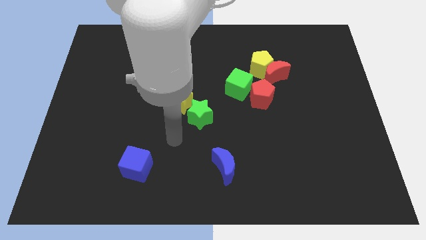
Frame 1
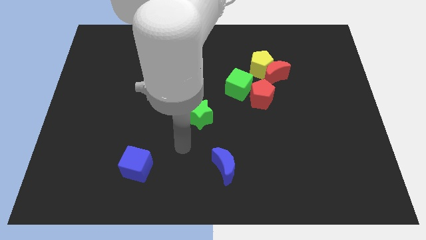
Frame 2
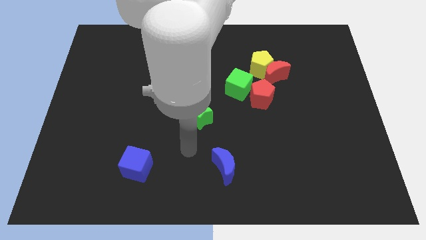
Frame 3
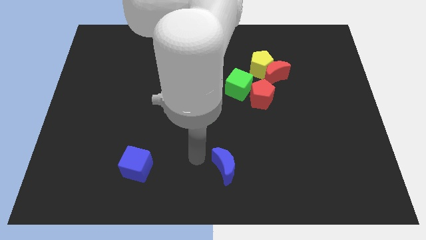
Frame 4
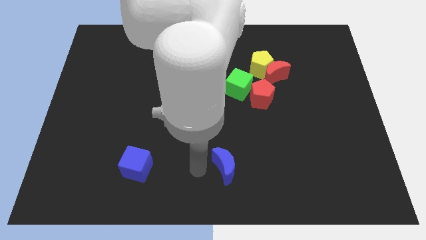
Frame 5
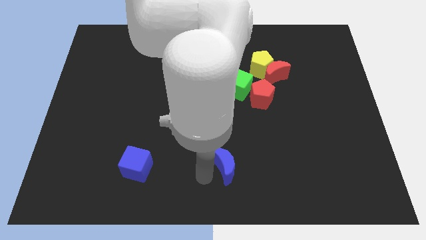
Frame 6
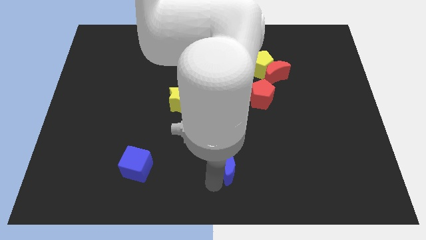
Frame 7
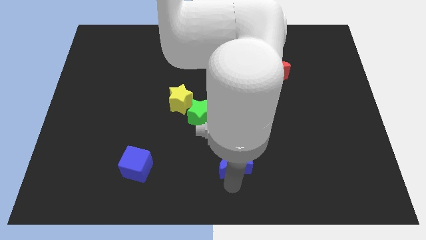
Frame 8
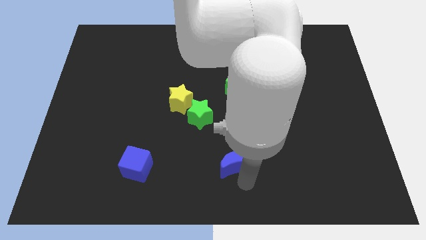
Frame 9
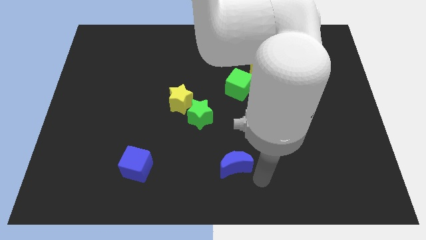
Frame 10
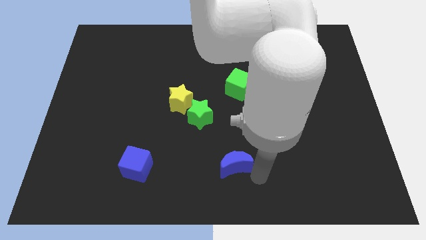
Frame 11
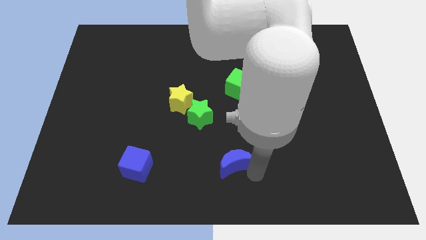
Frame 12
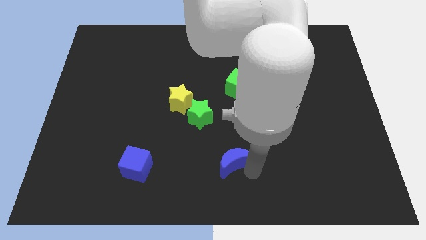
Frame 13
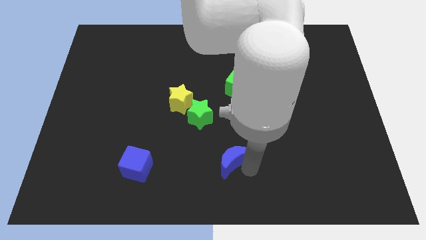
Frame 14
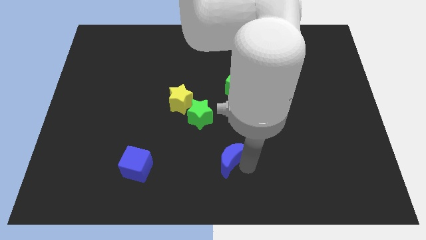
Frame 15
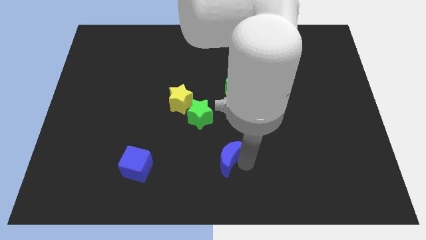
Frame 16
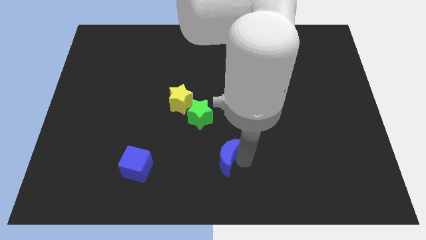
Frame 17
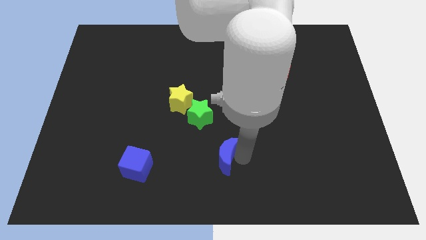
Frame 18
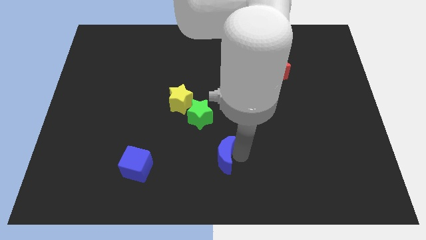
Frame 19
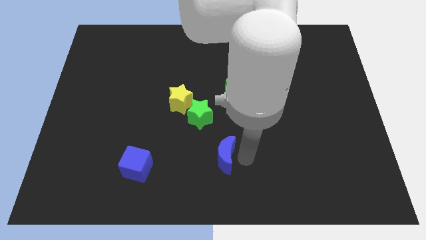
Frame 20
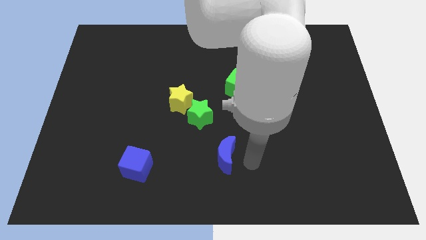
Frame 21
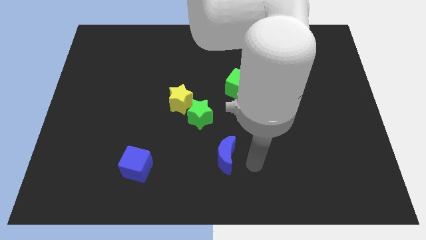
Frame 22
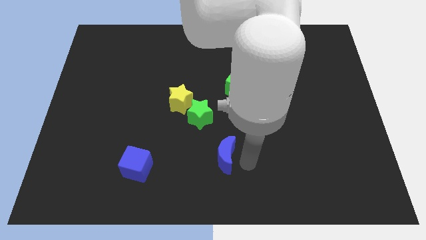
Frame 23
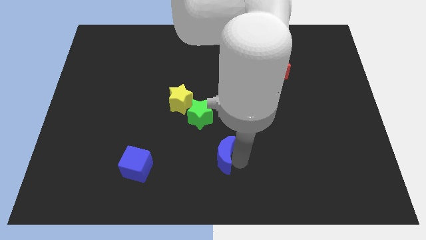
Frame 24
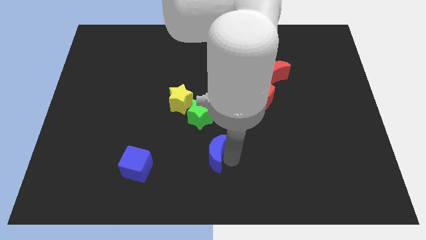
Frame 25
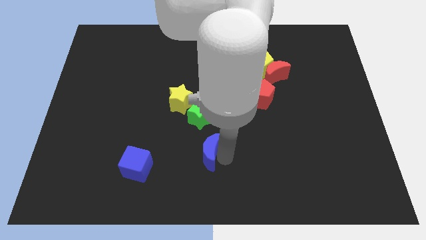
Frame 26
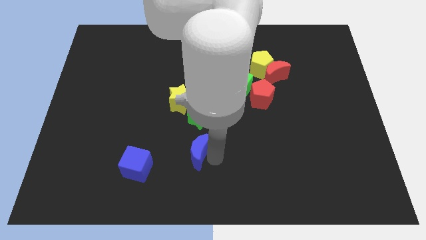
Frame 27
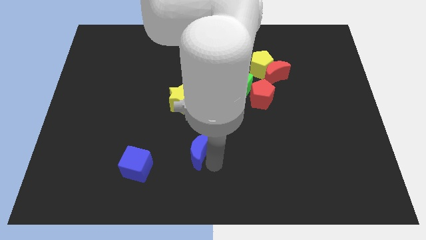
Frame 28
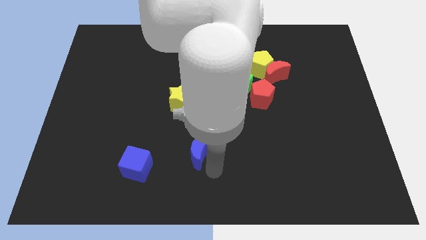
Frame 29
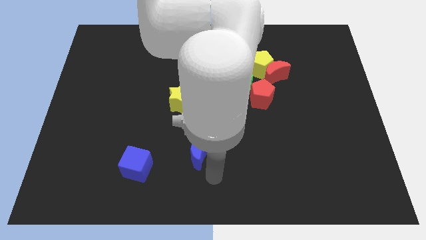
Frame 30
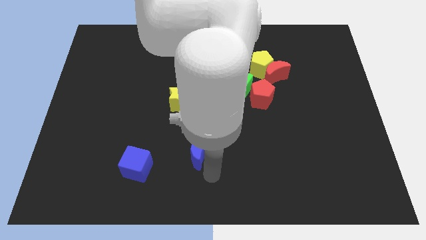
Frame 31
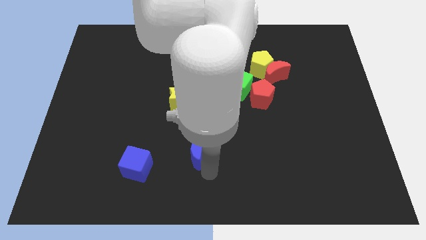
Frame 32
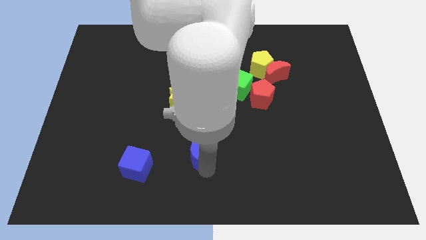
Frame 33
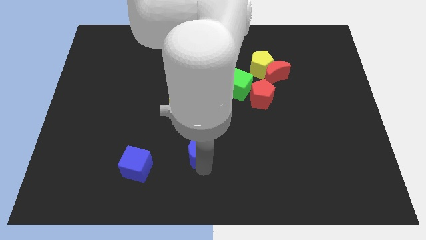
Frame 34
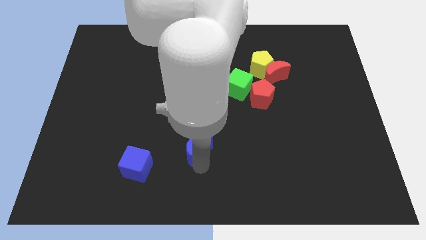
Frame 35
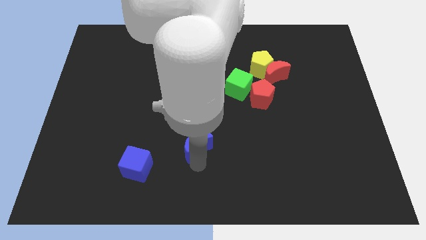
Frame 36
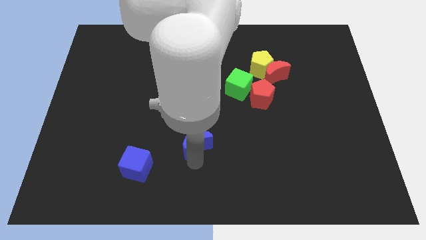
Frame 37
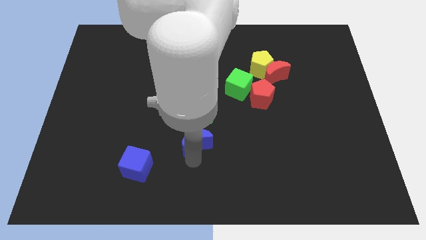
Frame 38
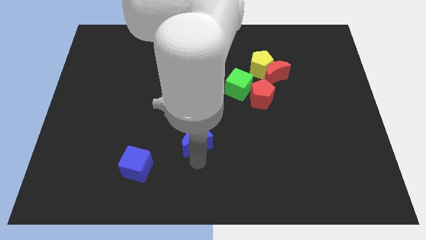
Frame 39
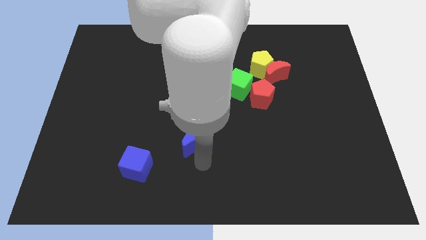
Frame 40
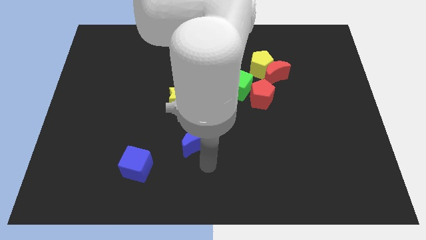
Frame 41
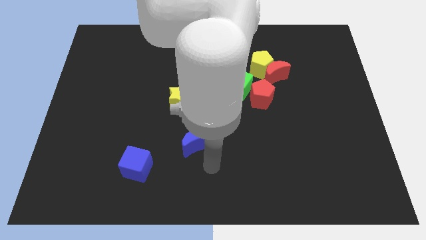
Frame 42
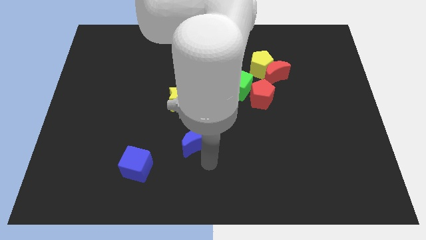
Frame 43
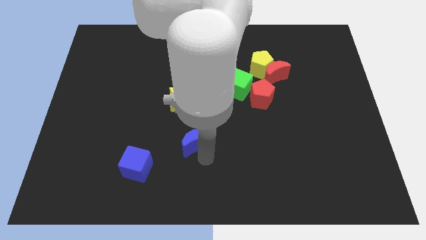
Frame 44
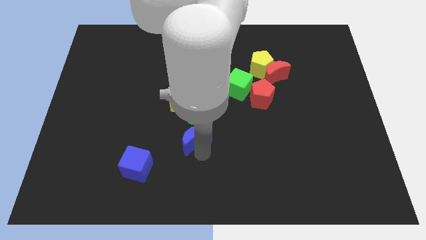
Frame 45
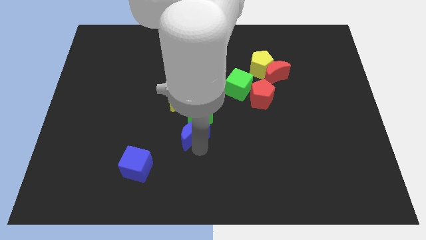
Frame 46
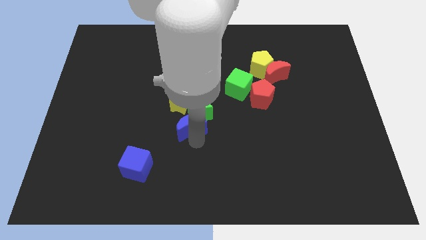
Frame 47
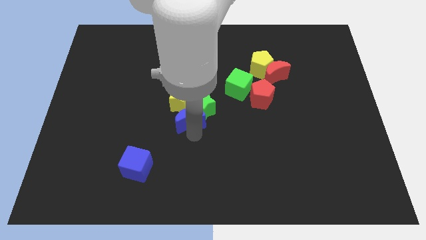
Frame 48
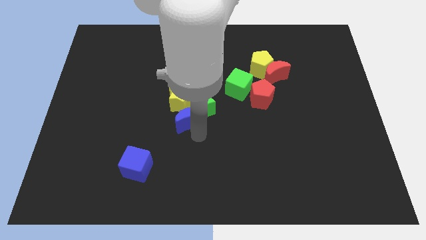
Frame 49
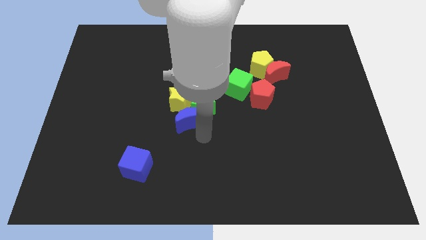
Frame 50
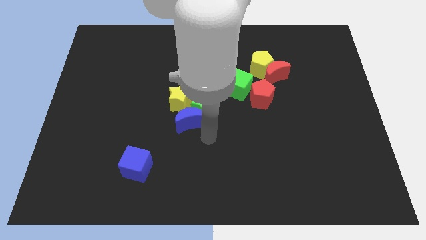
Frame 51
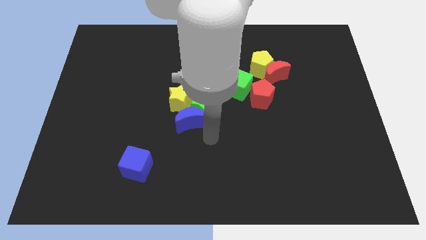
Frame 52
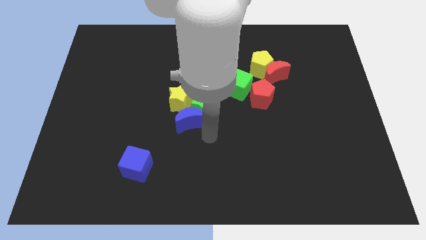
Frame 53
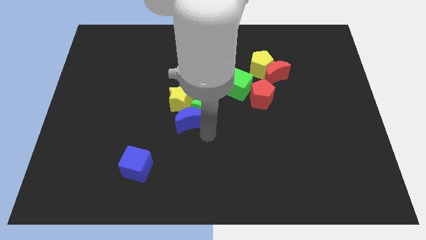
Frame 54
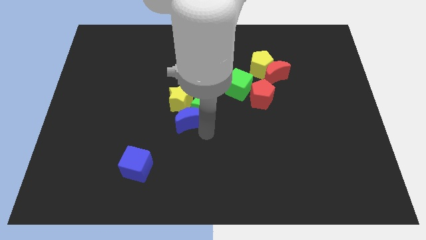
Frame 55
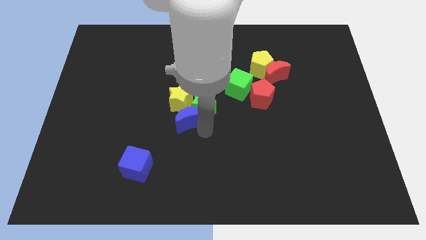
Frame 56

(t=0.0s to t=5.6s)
slide the blue moon next to the yellow star

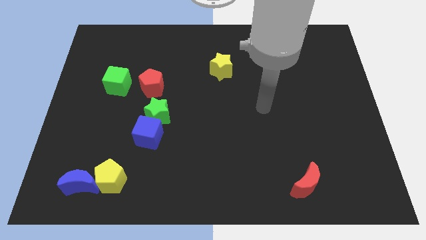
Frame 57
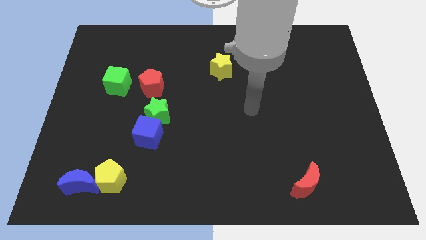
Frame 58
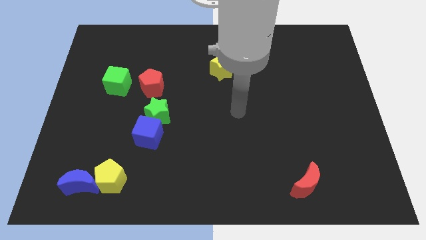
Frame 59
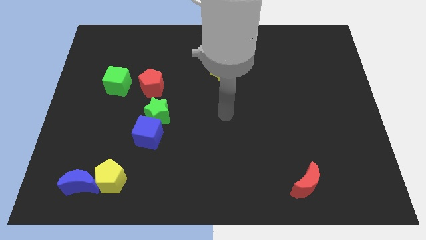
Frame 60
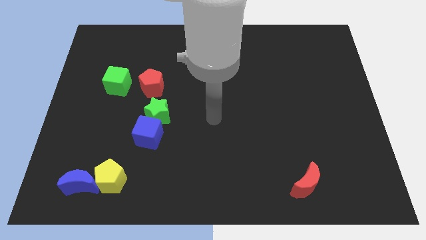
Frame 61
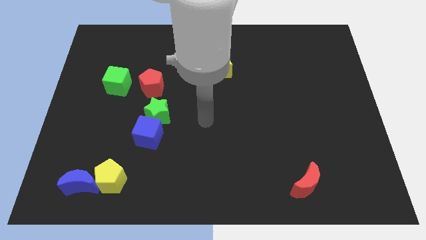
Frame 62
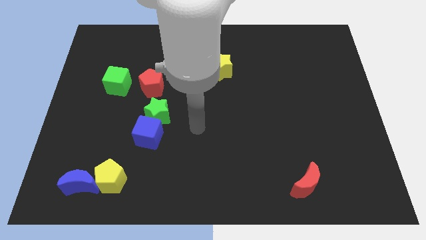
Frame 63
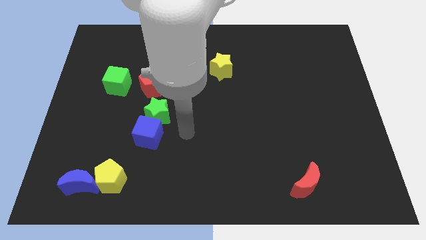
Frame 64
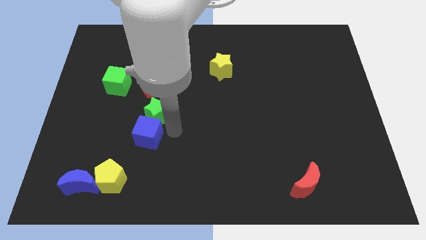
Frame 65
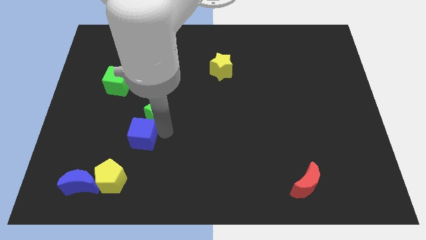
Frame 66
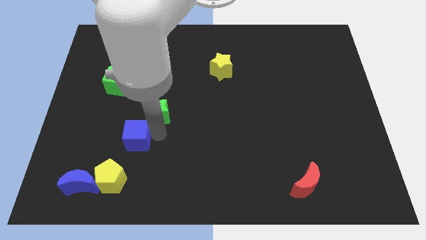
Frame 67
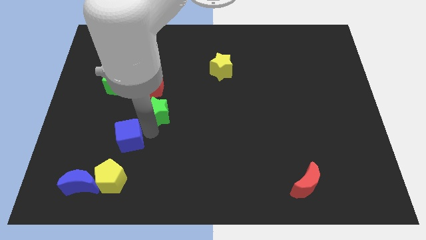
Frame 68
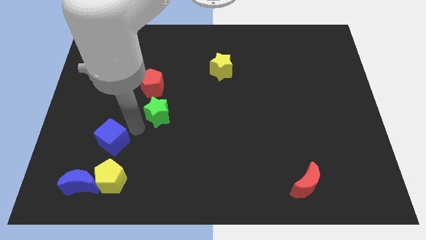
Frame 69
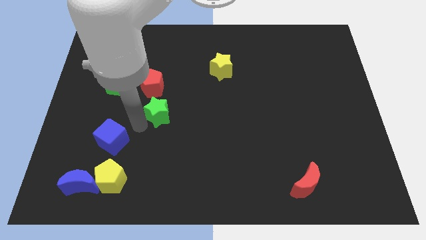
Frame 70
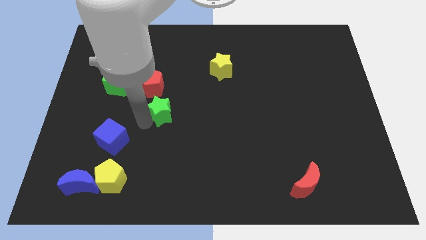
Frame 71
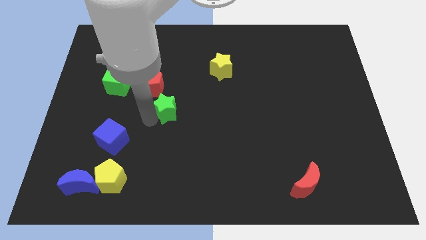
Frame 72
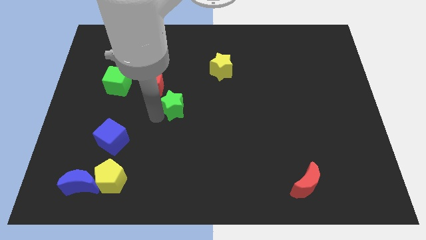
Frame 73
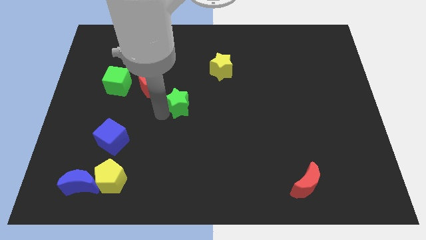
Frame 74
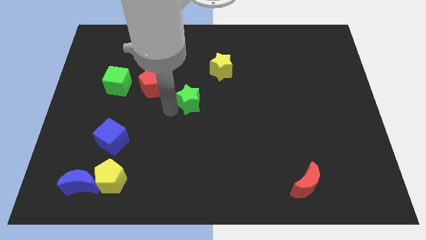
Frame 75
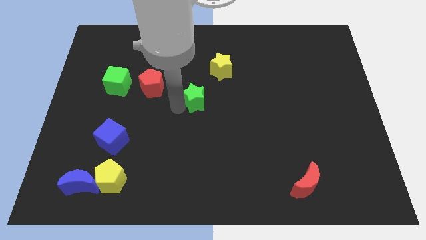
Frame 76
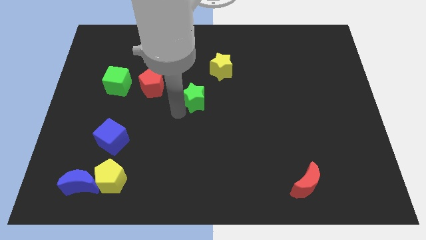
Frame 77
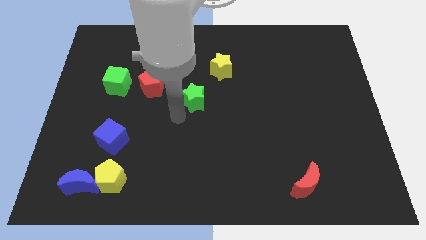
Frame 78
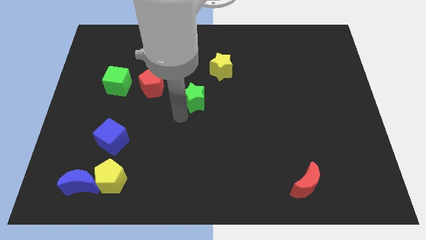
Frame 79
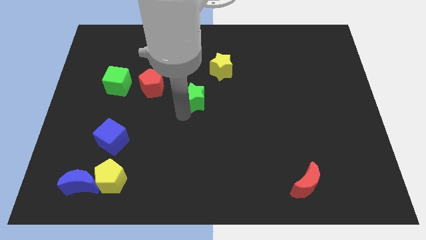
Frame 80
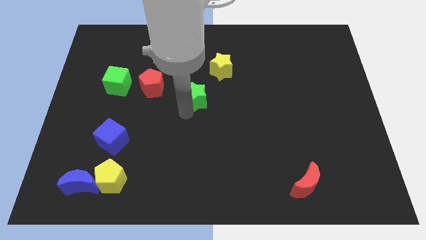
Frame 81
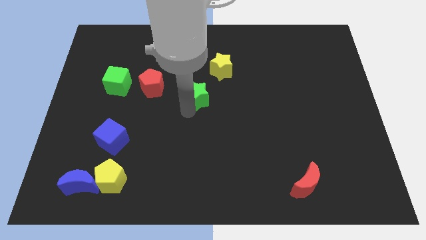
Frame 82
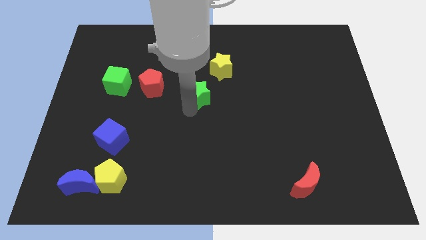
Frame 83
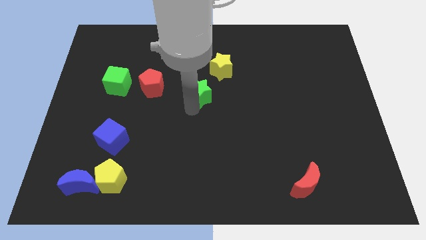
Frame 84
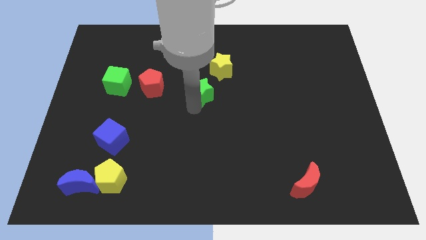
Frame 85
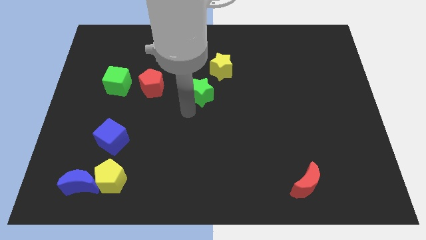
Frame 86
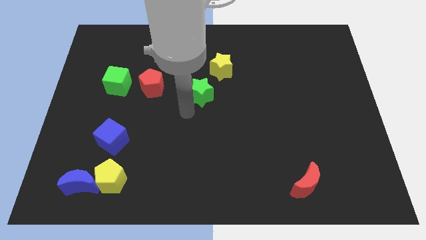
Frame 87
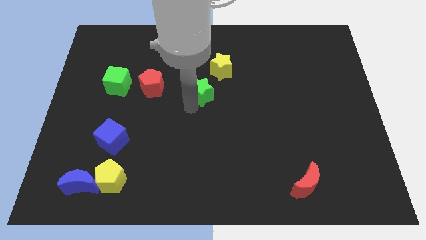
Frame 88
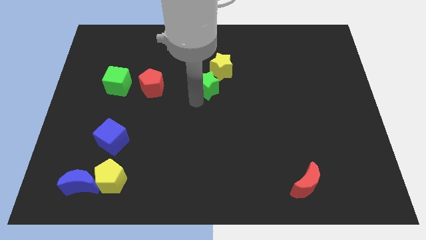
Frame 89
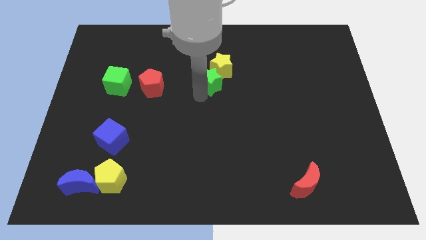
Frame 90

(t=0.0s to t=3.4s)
push the green star next to the yellow star
